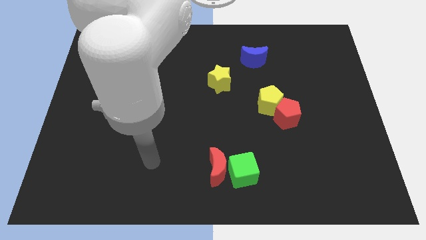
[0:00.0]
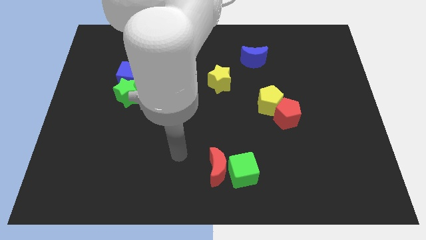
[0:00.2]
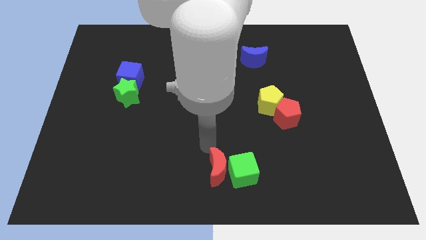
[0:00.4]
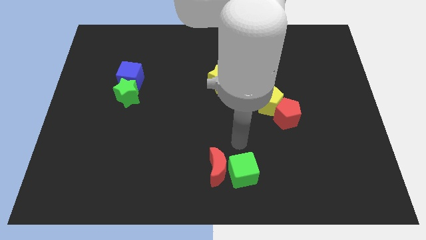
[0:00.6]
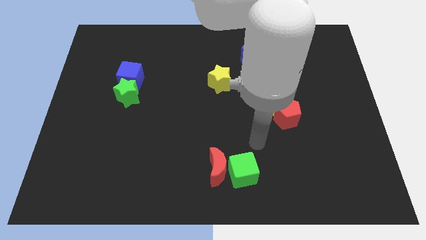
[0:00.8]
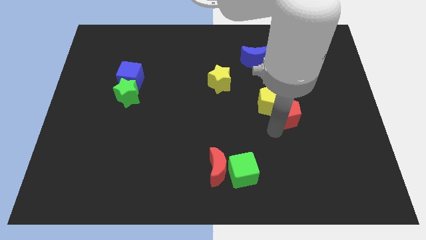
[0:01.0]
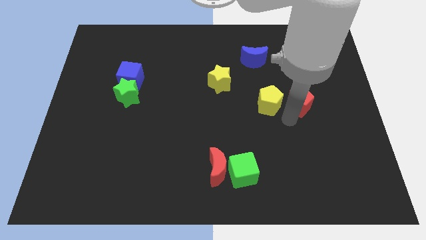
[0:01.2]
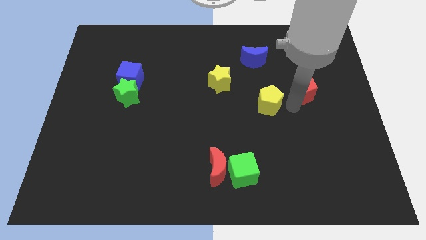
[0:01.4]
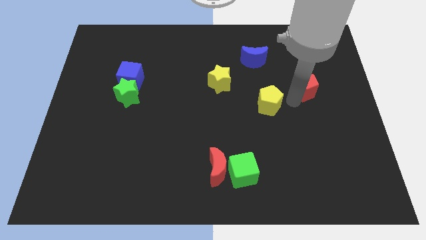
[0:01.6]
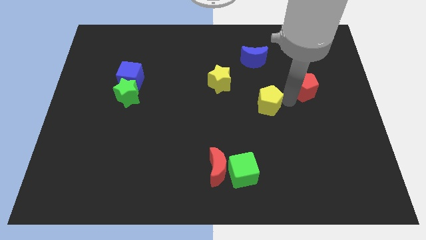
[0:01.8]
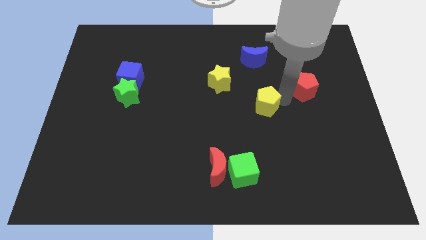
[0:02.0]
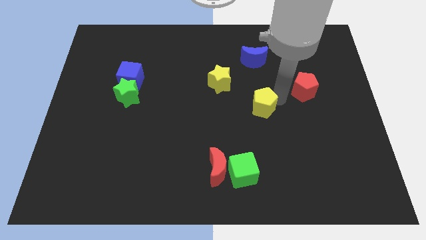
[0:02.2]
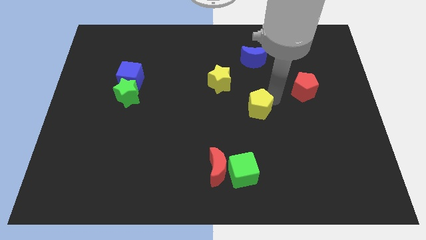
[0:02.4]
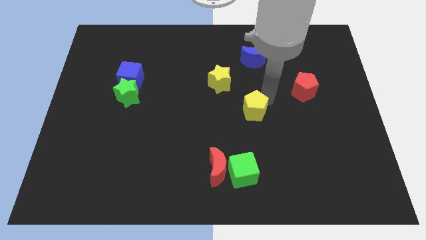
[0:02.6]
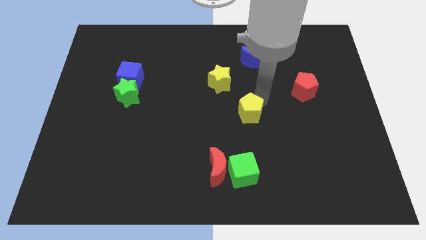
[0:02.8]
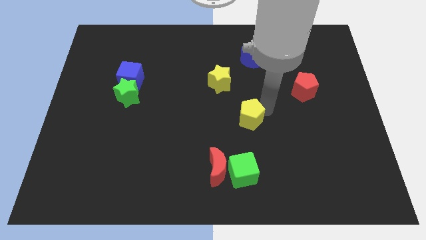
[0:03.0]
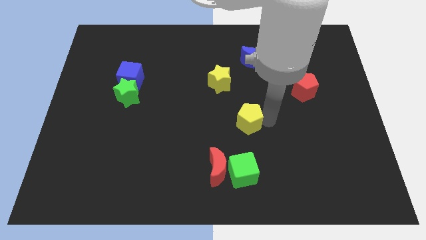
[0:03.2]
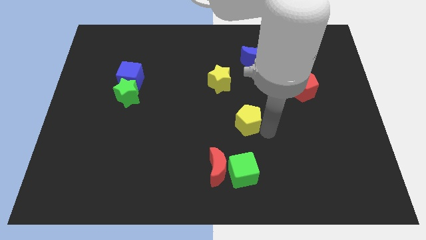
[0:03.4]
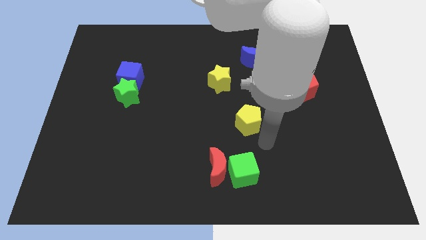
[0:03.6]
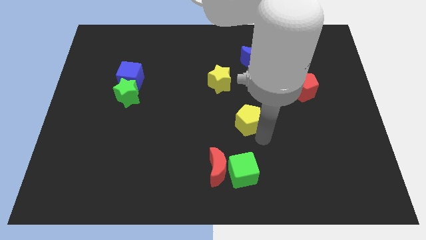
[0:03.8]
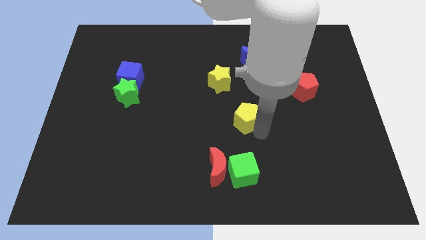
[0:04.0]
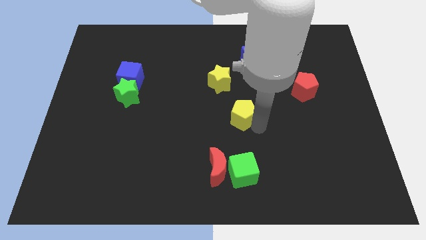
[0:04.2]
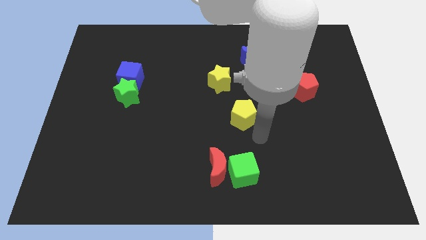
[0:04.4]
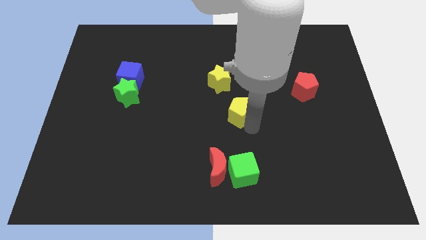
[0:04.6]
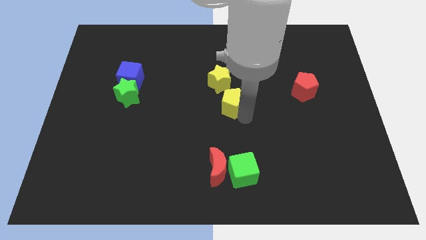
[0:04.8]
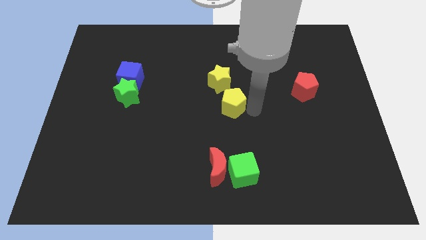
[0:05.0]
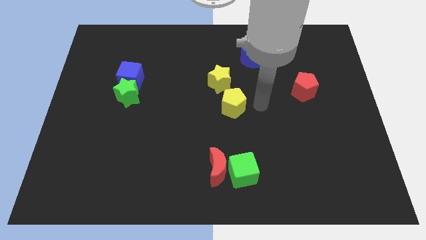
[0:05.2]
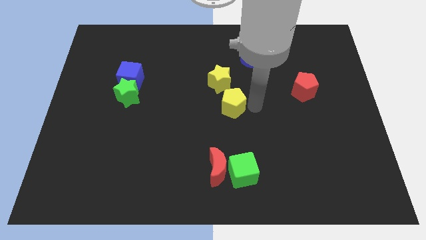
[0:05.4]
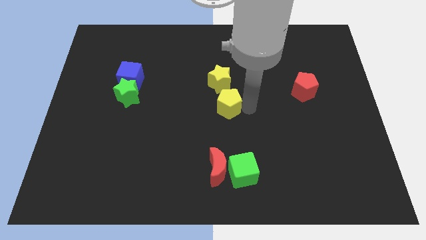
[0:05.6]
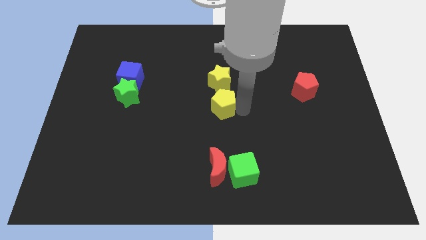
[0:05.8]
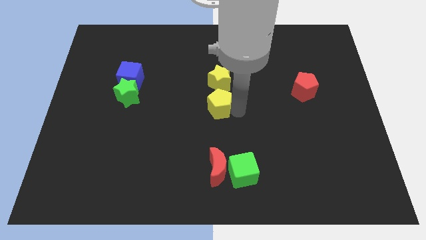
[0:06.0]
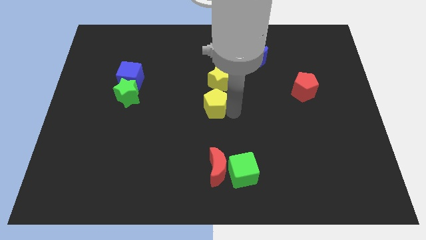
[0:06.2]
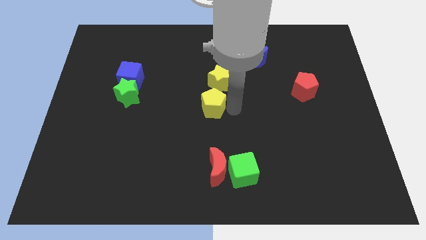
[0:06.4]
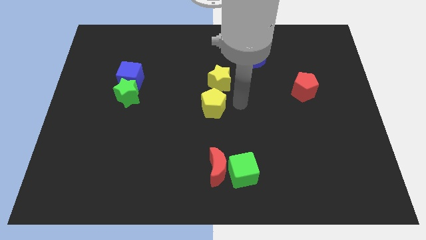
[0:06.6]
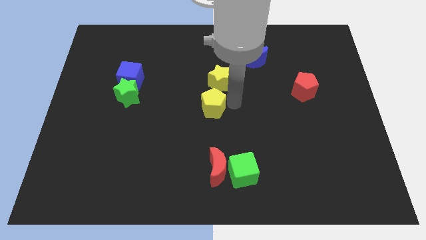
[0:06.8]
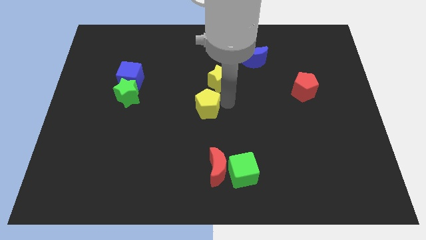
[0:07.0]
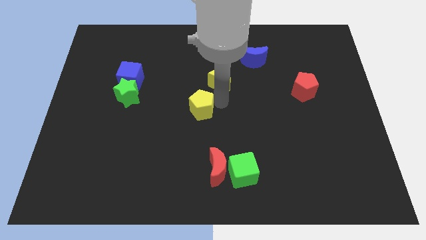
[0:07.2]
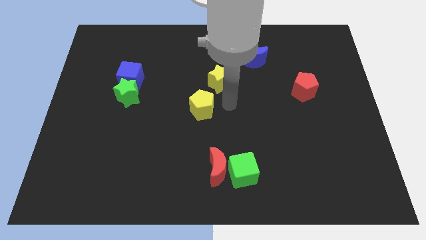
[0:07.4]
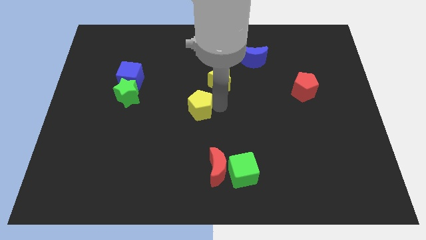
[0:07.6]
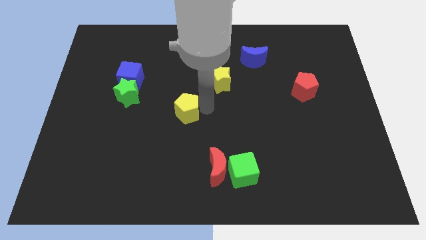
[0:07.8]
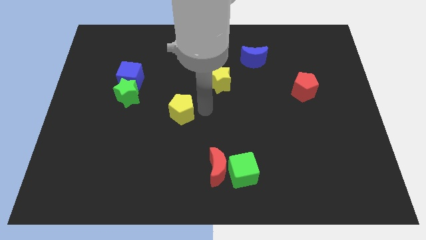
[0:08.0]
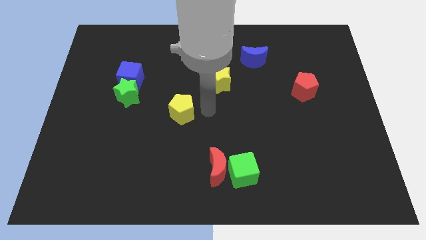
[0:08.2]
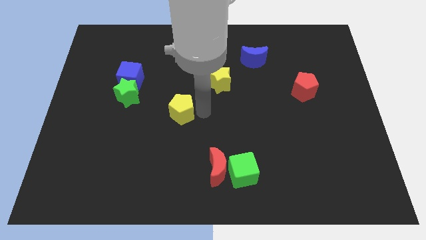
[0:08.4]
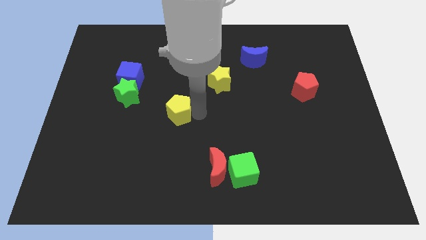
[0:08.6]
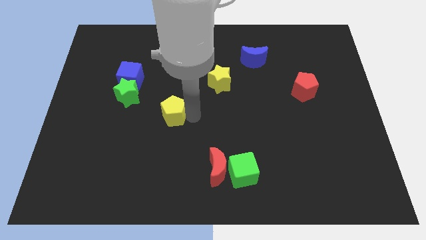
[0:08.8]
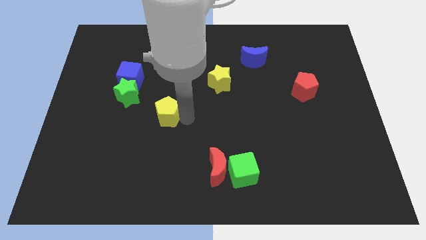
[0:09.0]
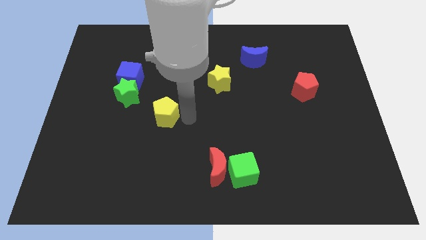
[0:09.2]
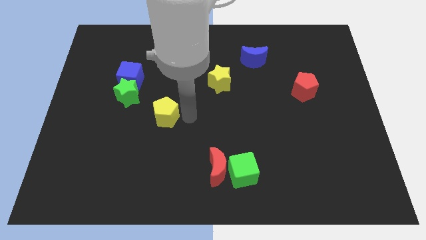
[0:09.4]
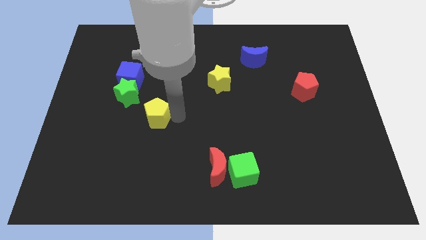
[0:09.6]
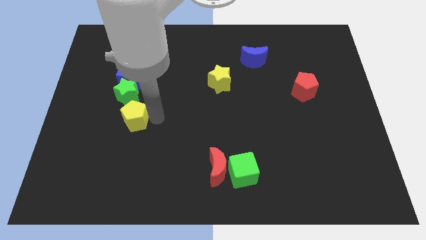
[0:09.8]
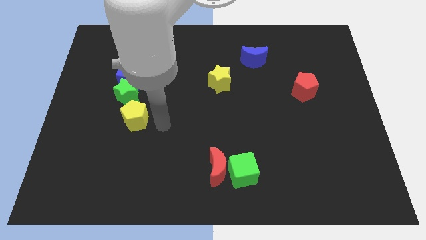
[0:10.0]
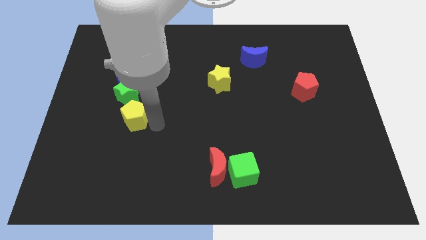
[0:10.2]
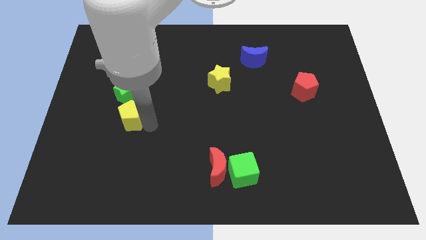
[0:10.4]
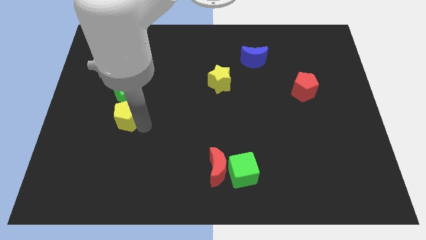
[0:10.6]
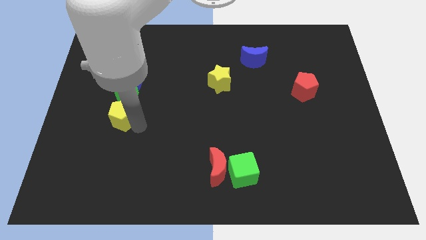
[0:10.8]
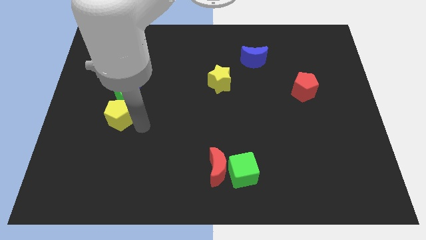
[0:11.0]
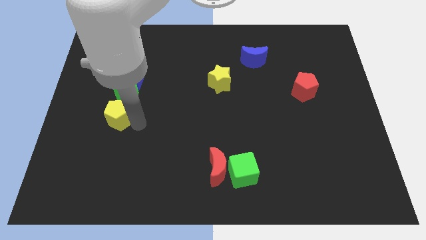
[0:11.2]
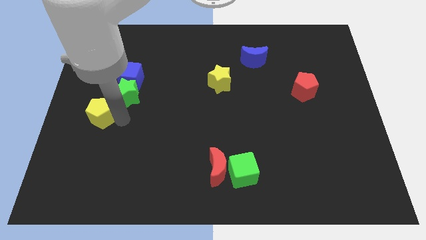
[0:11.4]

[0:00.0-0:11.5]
push the yellow pentagon to the left side

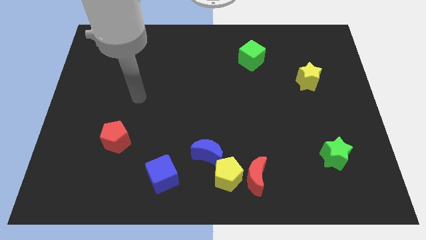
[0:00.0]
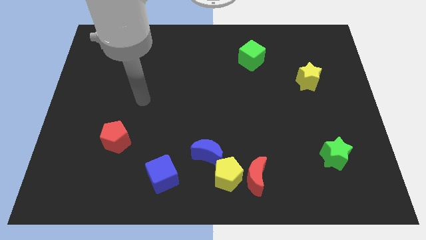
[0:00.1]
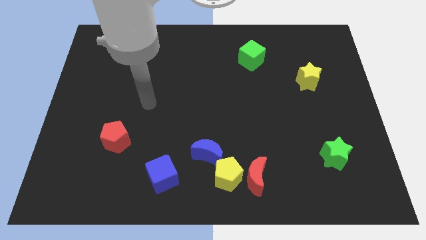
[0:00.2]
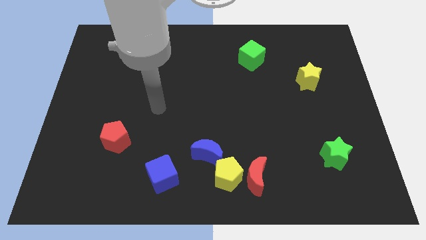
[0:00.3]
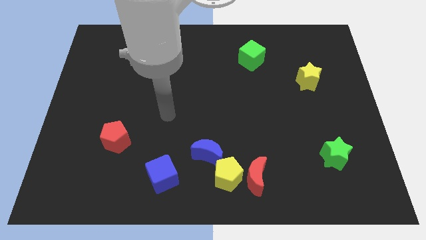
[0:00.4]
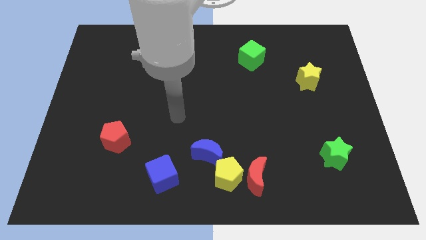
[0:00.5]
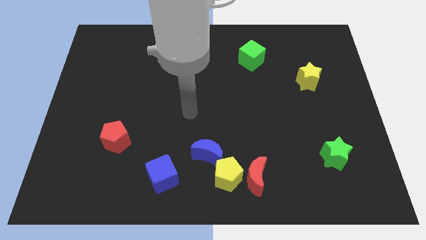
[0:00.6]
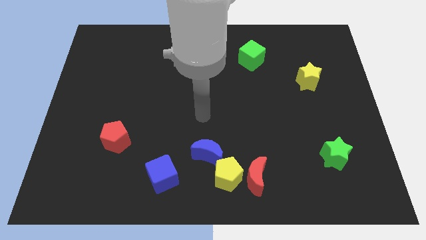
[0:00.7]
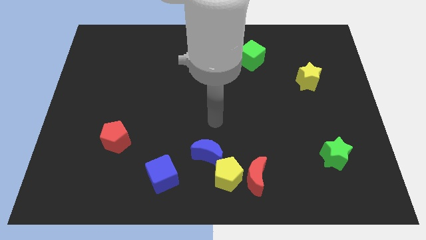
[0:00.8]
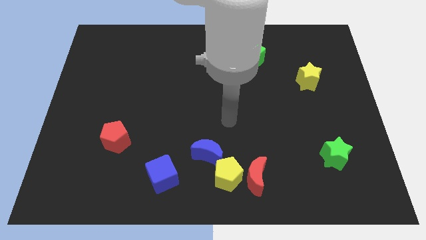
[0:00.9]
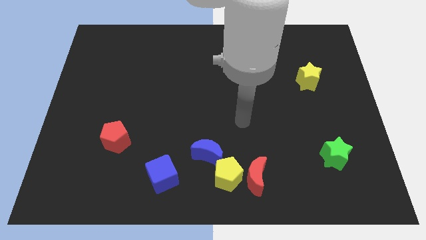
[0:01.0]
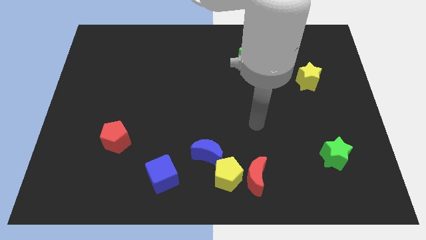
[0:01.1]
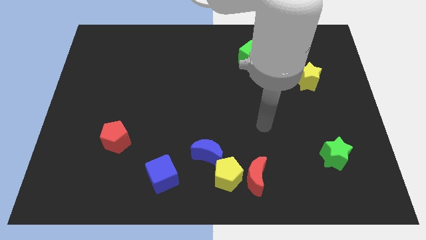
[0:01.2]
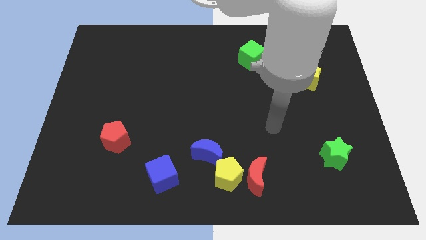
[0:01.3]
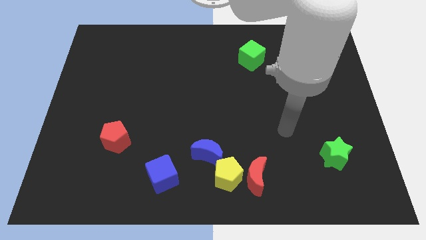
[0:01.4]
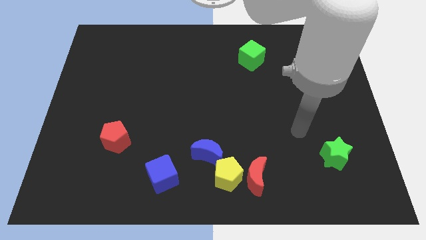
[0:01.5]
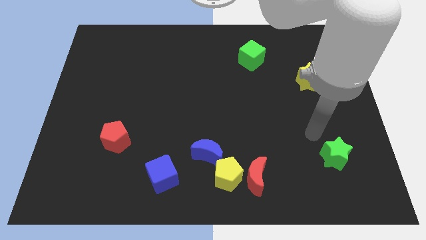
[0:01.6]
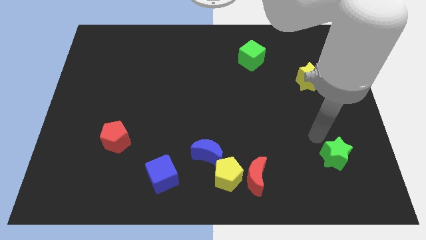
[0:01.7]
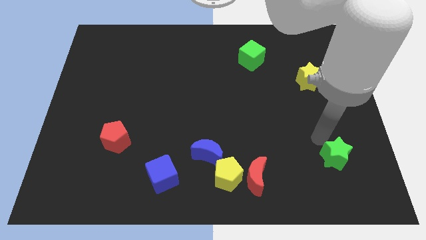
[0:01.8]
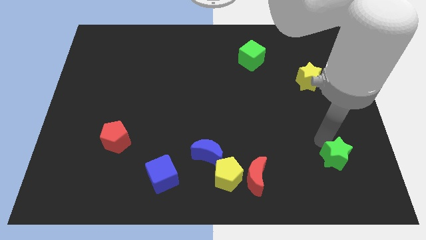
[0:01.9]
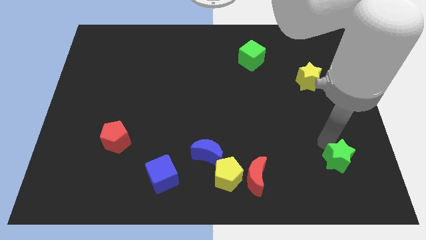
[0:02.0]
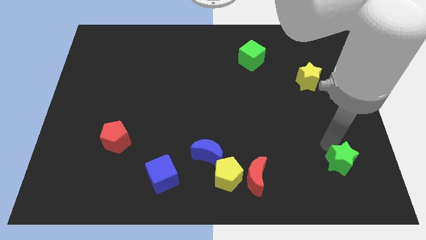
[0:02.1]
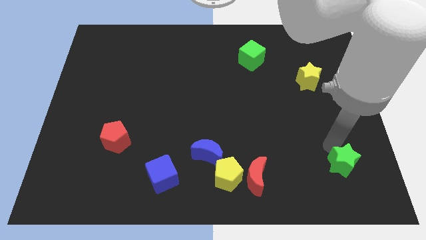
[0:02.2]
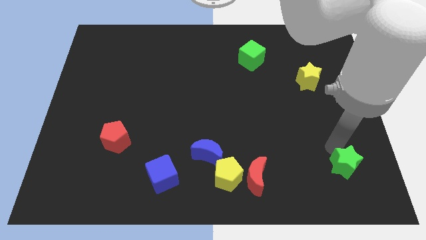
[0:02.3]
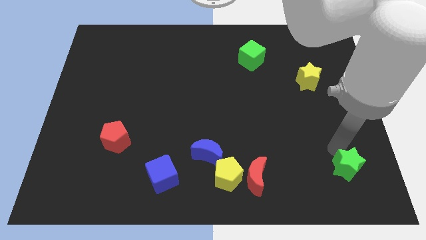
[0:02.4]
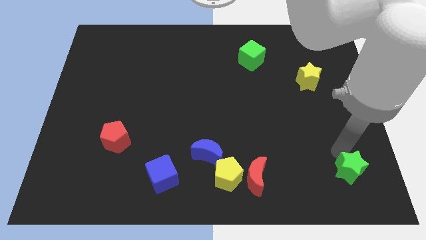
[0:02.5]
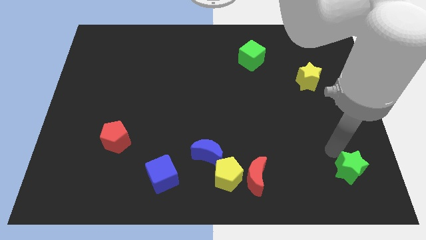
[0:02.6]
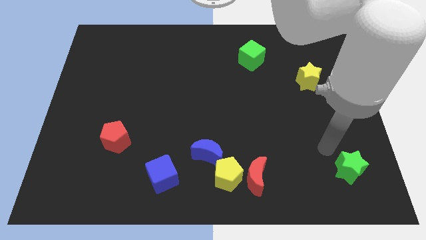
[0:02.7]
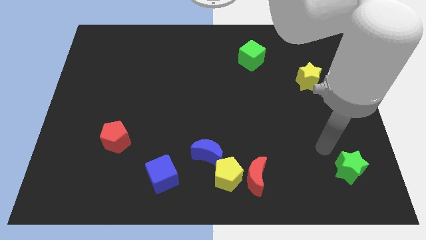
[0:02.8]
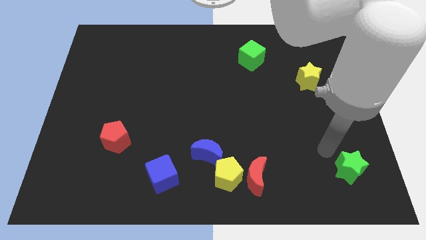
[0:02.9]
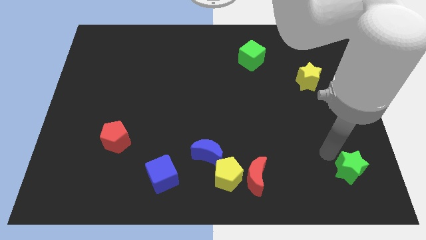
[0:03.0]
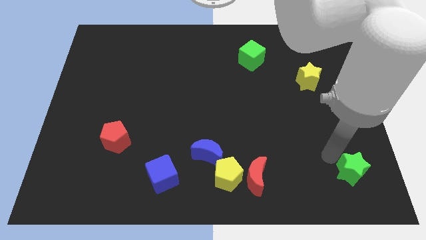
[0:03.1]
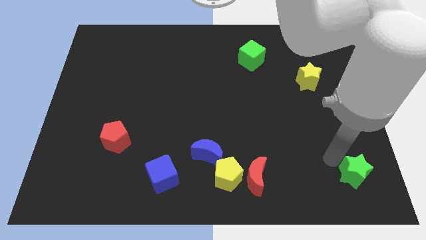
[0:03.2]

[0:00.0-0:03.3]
move the green star to the bottom right corner
